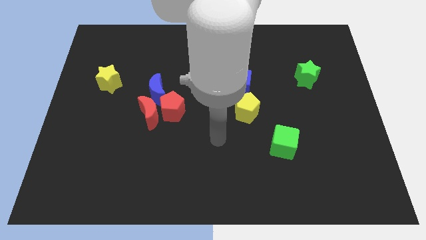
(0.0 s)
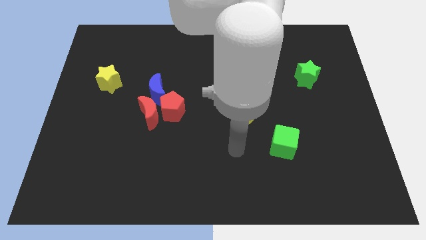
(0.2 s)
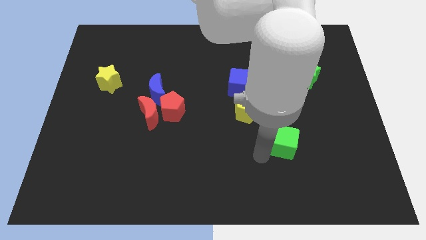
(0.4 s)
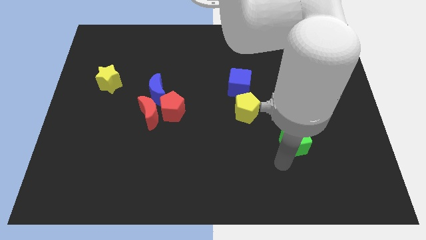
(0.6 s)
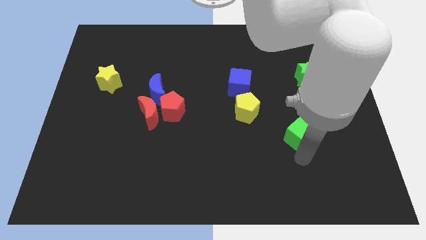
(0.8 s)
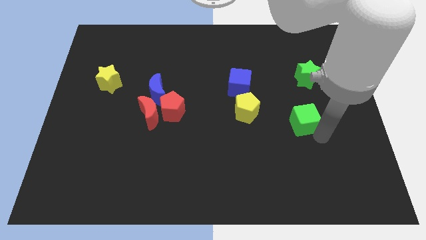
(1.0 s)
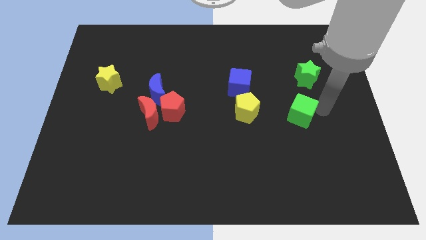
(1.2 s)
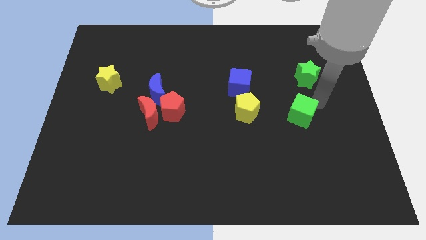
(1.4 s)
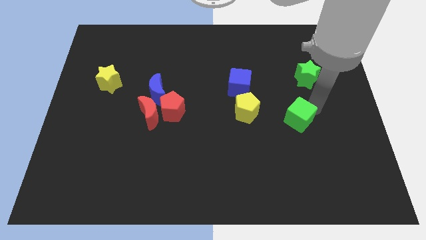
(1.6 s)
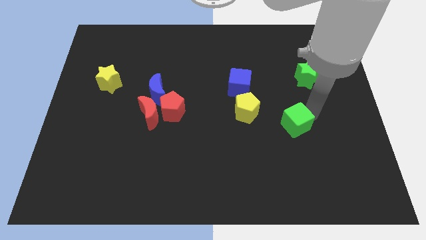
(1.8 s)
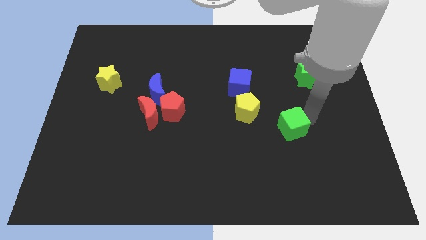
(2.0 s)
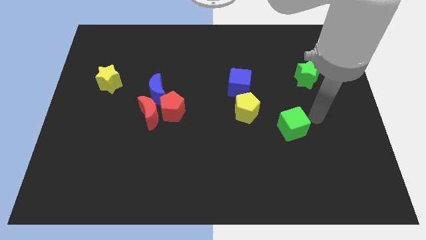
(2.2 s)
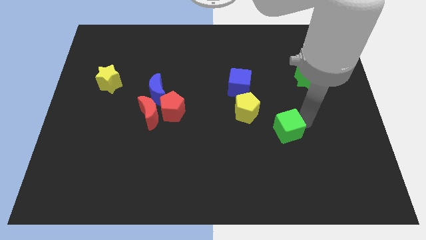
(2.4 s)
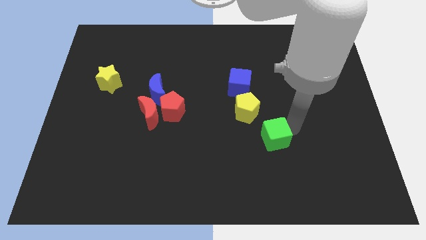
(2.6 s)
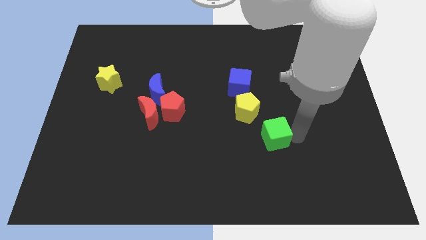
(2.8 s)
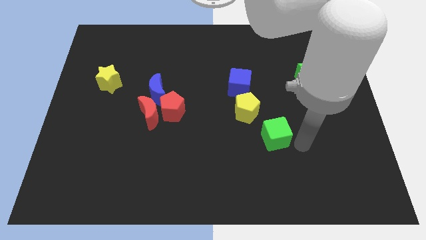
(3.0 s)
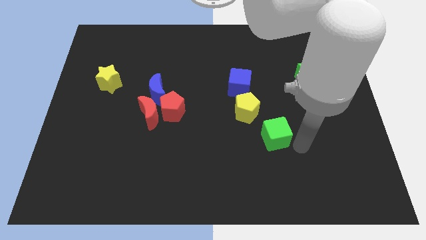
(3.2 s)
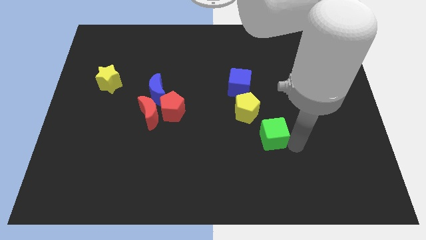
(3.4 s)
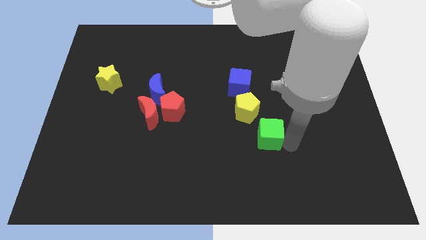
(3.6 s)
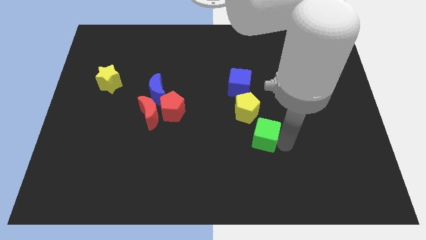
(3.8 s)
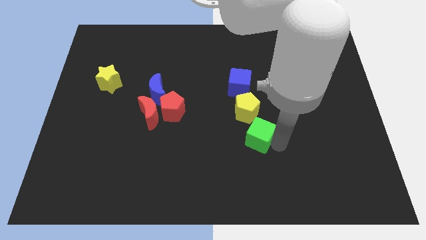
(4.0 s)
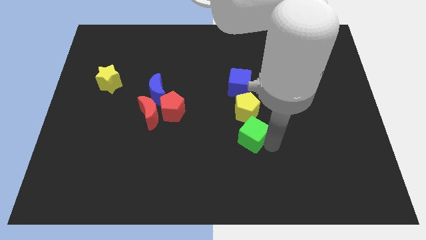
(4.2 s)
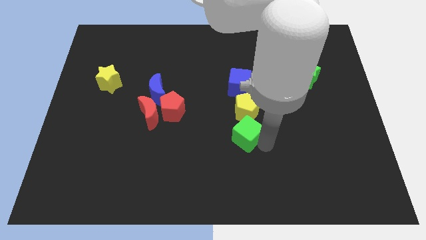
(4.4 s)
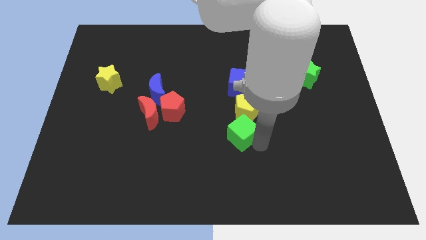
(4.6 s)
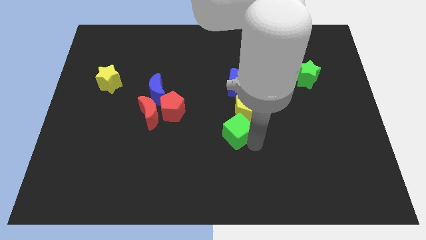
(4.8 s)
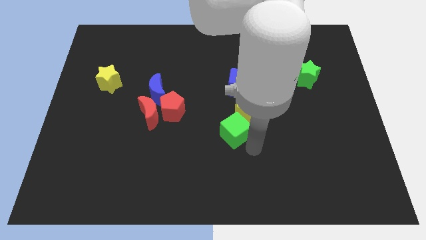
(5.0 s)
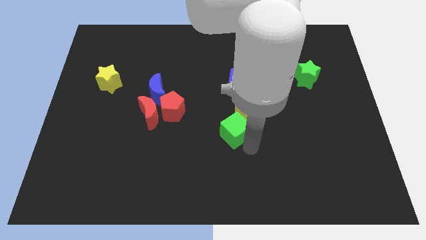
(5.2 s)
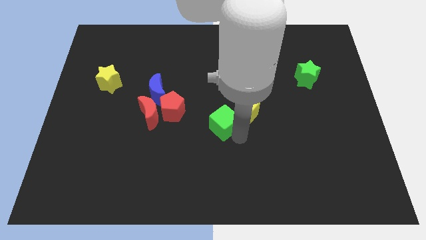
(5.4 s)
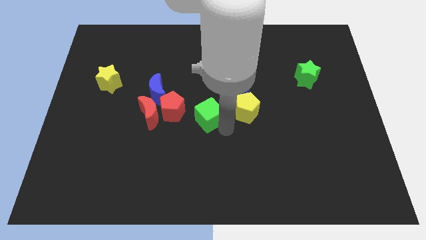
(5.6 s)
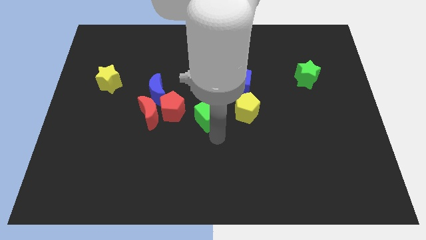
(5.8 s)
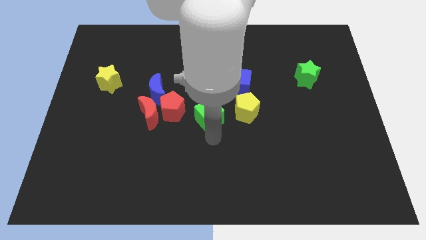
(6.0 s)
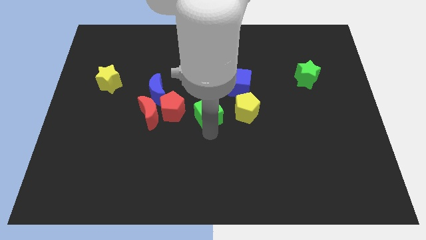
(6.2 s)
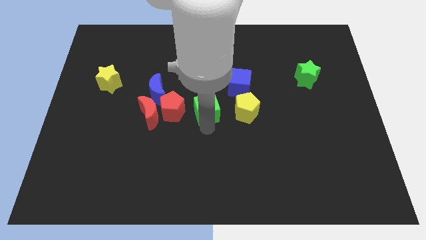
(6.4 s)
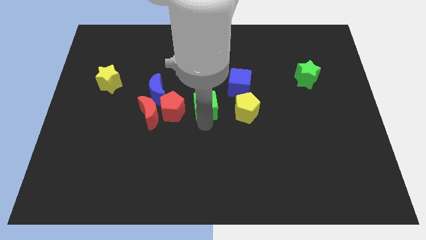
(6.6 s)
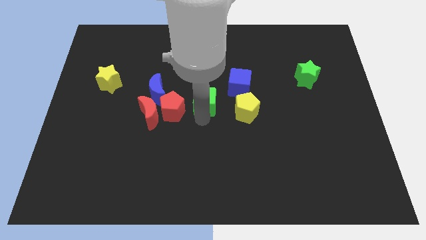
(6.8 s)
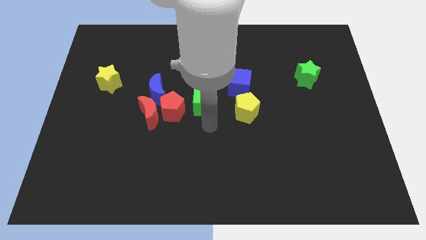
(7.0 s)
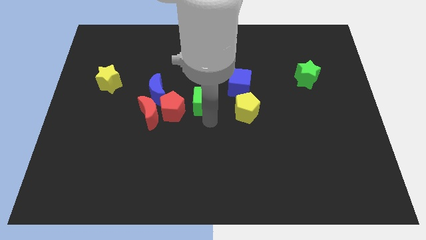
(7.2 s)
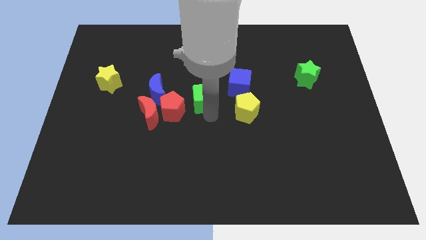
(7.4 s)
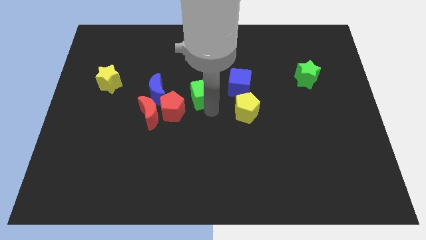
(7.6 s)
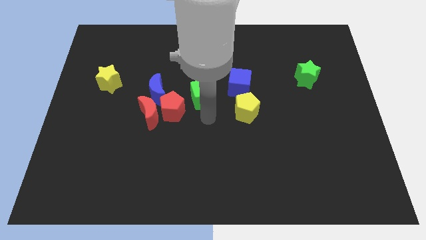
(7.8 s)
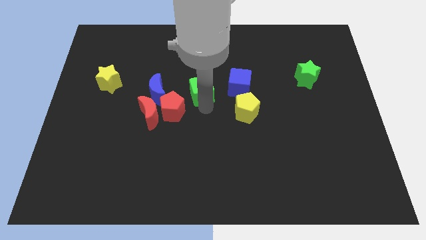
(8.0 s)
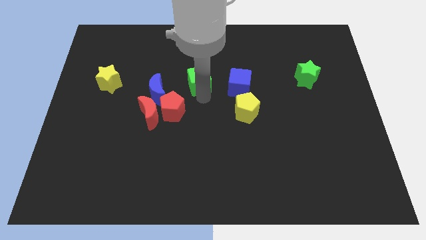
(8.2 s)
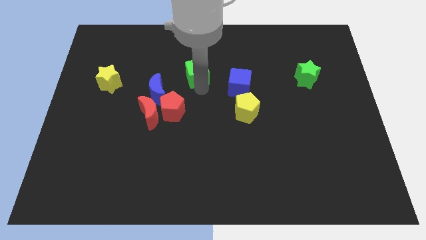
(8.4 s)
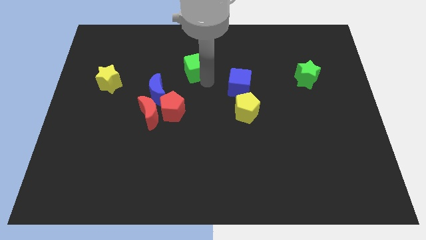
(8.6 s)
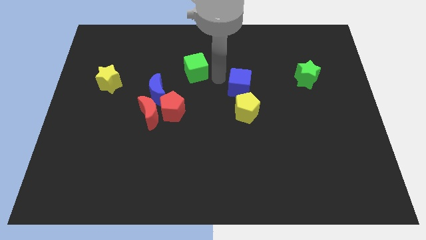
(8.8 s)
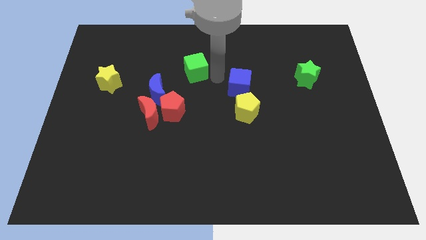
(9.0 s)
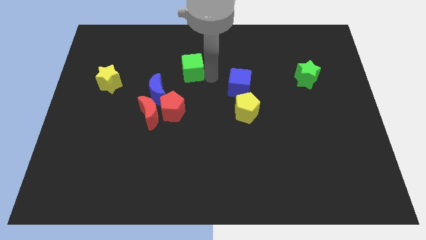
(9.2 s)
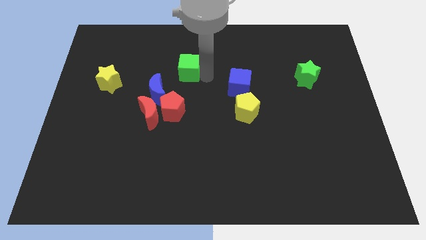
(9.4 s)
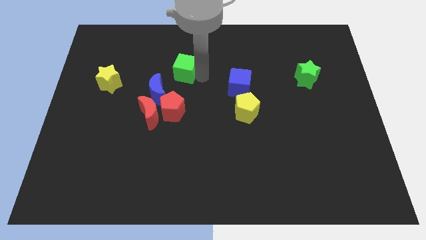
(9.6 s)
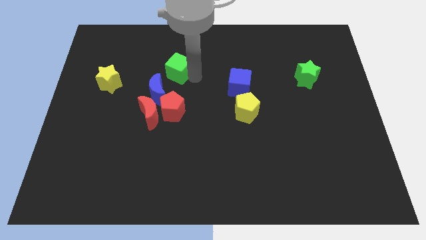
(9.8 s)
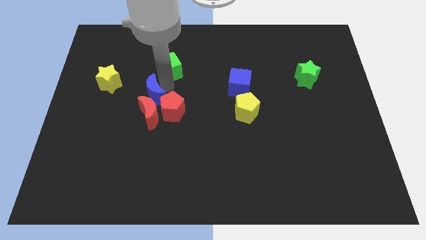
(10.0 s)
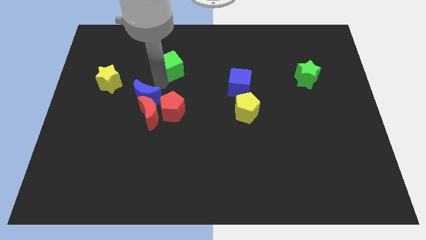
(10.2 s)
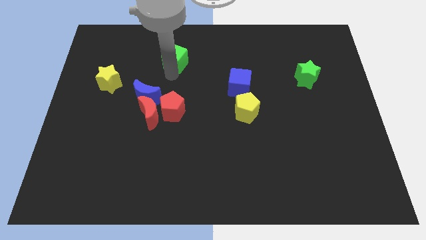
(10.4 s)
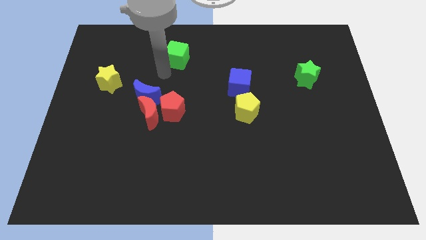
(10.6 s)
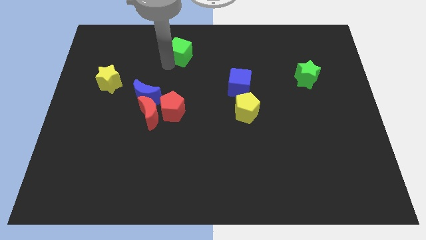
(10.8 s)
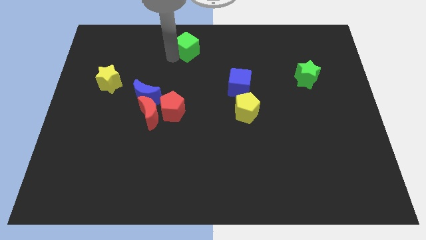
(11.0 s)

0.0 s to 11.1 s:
put the green cube to the top side

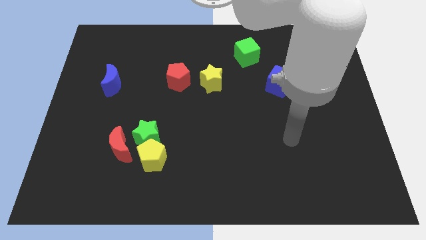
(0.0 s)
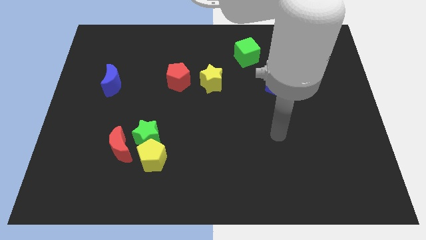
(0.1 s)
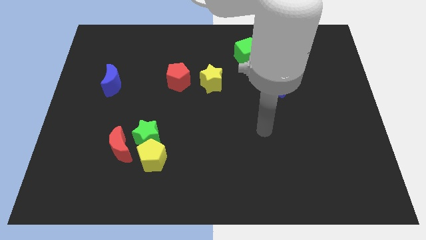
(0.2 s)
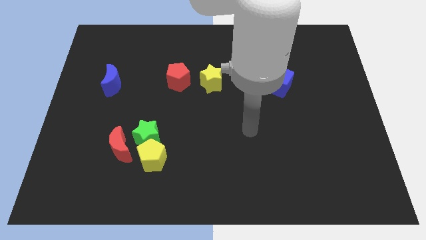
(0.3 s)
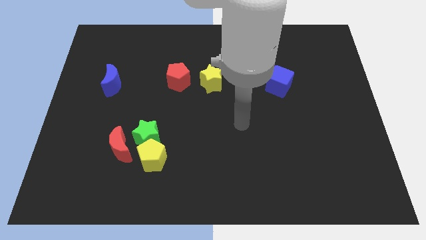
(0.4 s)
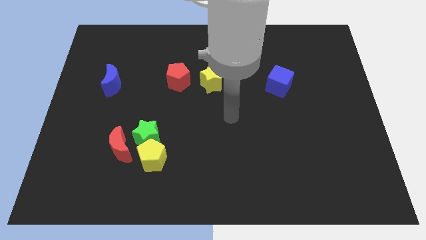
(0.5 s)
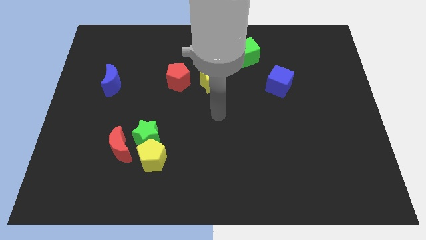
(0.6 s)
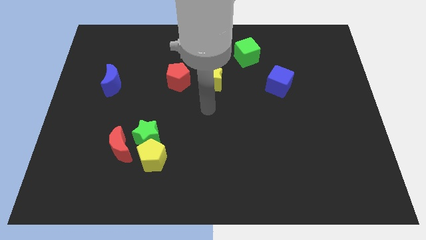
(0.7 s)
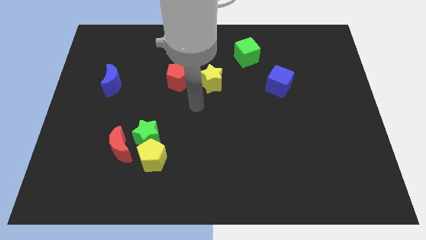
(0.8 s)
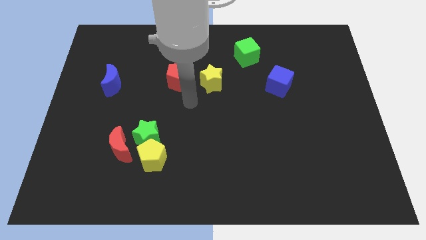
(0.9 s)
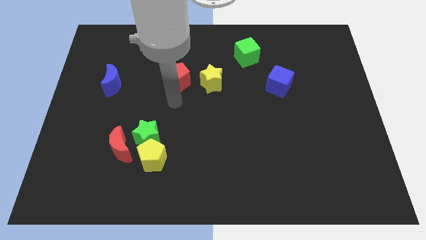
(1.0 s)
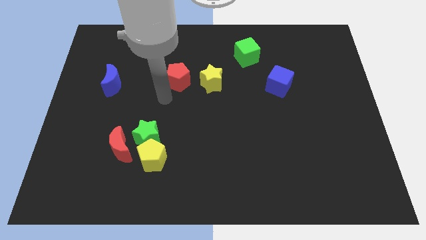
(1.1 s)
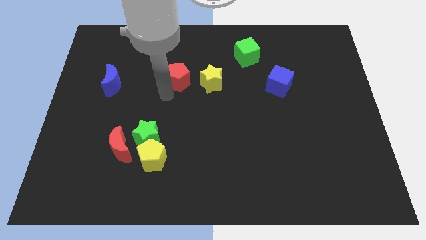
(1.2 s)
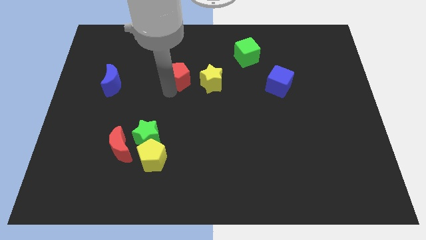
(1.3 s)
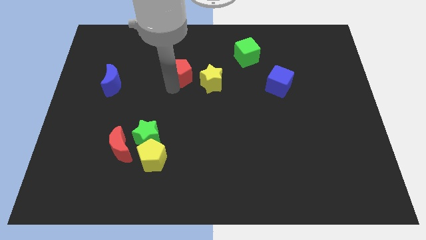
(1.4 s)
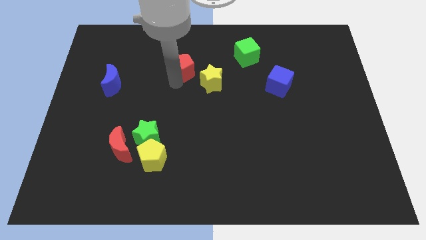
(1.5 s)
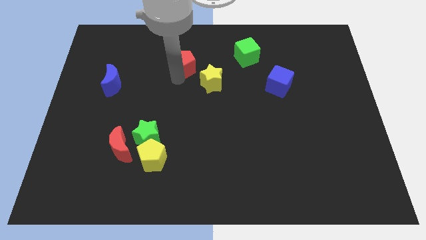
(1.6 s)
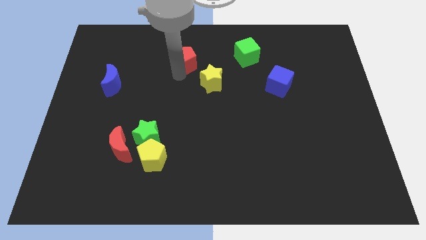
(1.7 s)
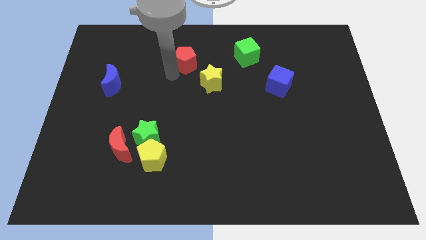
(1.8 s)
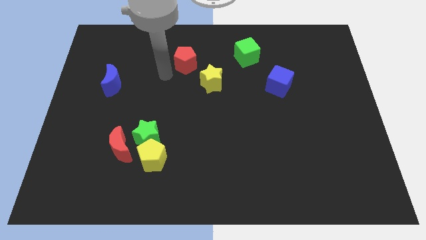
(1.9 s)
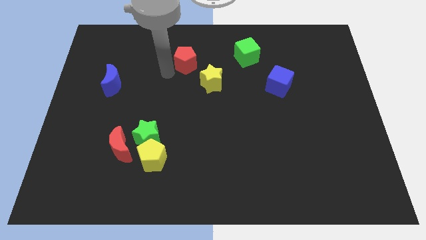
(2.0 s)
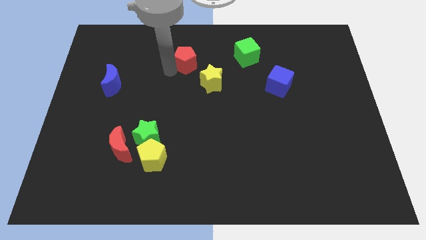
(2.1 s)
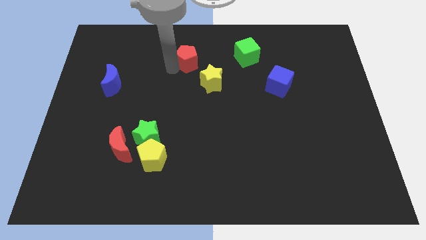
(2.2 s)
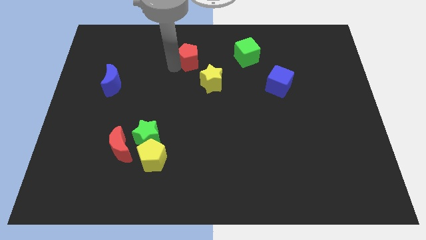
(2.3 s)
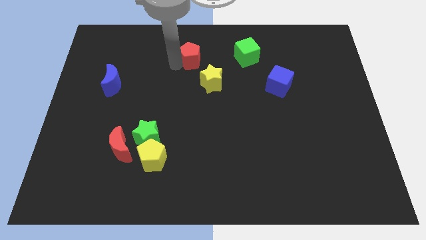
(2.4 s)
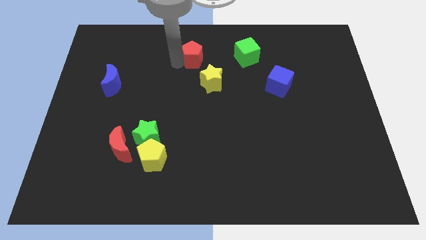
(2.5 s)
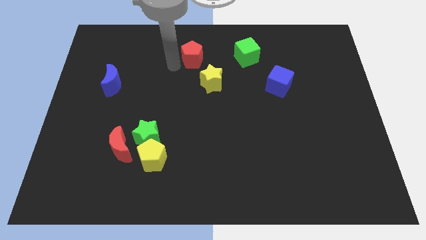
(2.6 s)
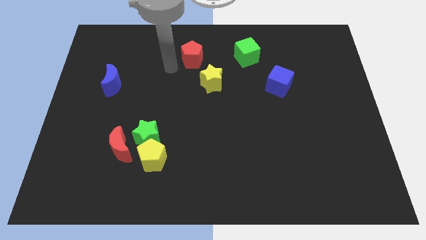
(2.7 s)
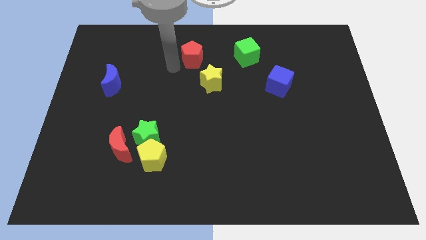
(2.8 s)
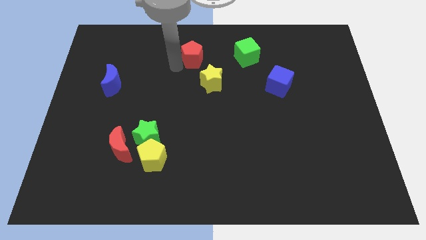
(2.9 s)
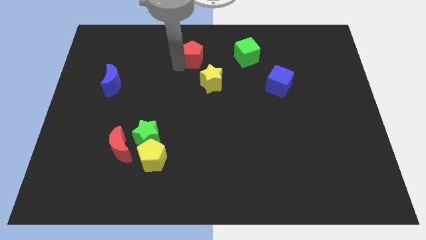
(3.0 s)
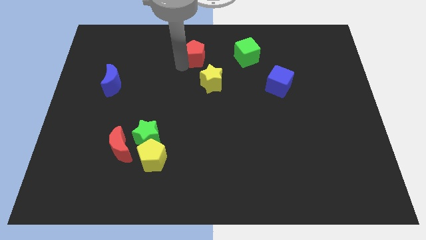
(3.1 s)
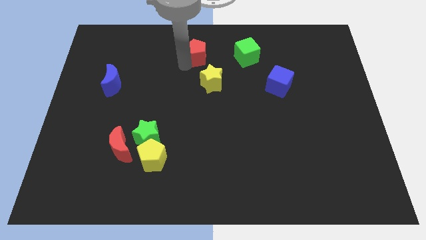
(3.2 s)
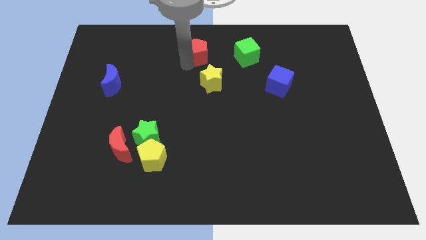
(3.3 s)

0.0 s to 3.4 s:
move the red pentagon to the towards your base
